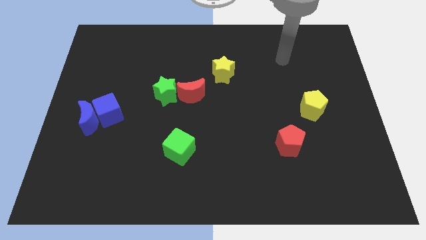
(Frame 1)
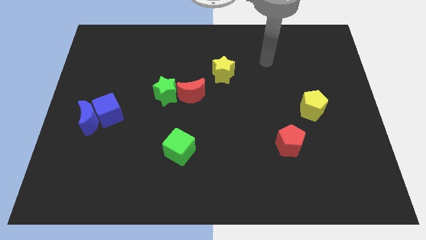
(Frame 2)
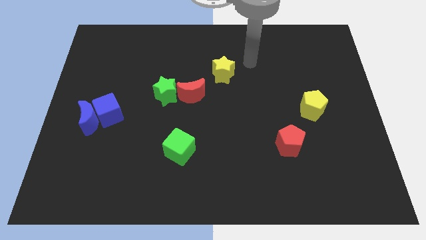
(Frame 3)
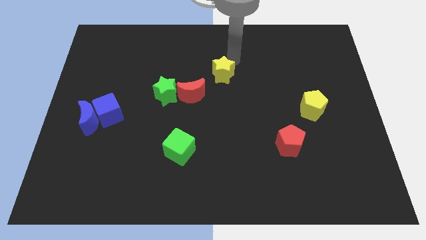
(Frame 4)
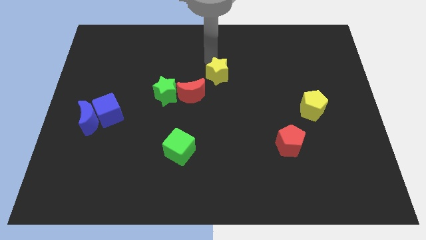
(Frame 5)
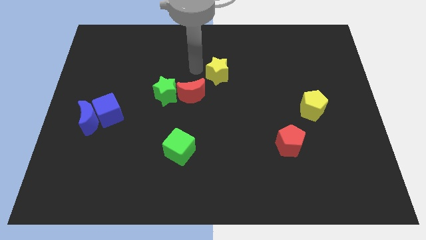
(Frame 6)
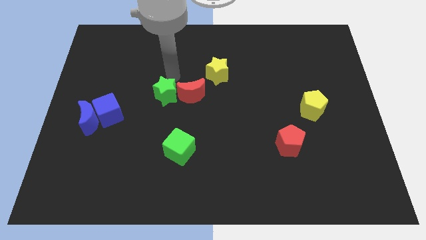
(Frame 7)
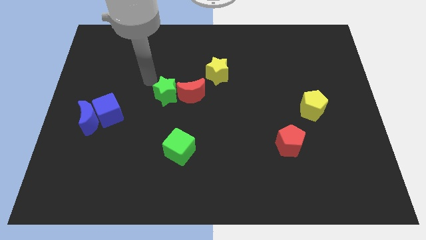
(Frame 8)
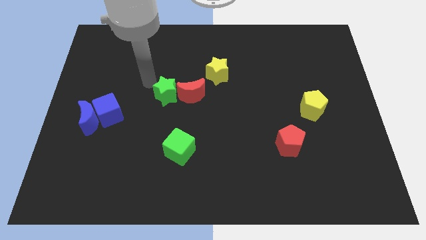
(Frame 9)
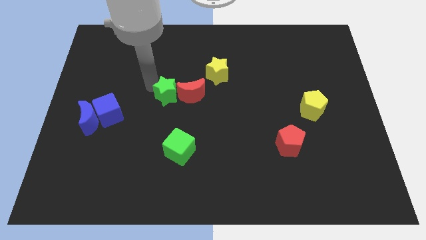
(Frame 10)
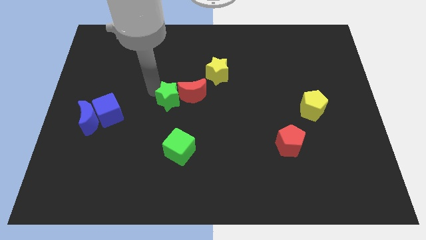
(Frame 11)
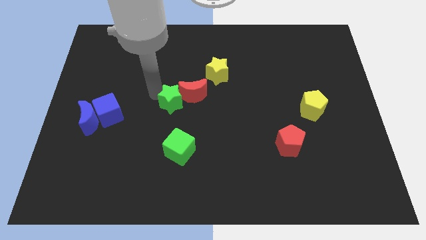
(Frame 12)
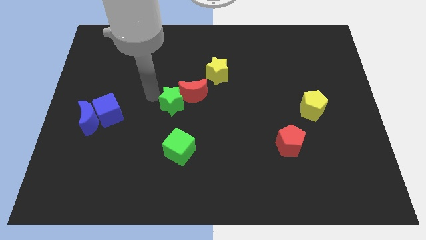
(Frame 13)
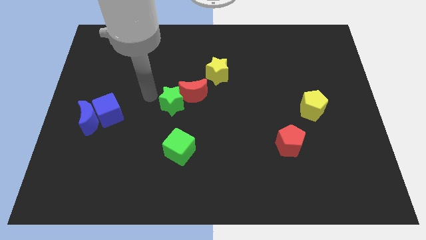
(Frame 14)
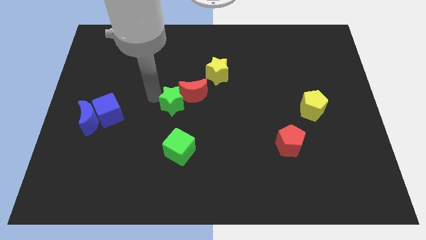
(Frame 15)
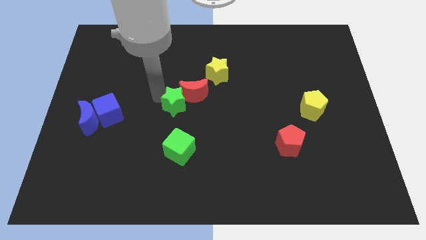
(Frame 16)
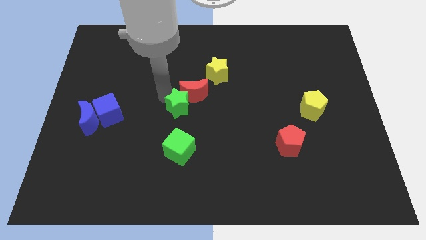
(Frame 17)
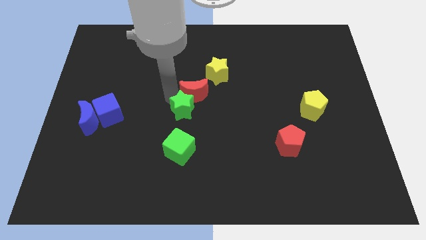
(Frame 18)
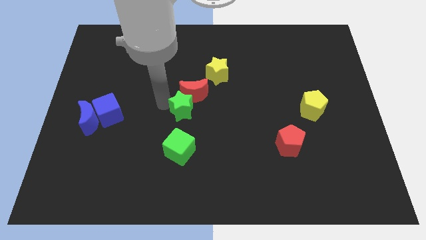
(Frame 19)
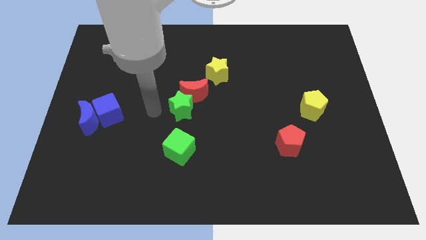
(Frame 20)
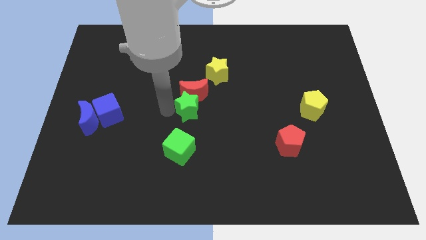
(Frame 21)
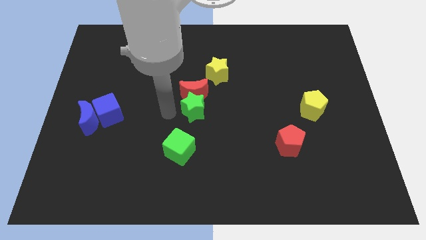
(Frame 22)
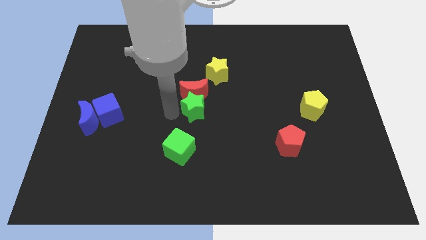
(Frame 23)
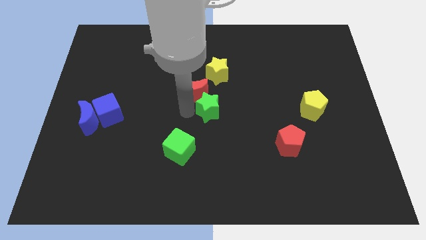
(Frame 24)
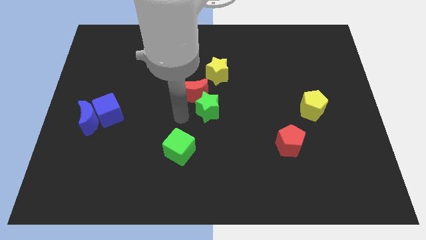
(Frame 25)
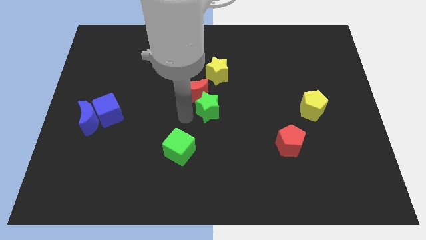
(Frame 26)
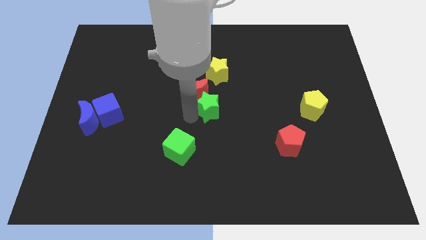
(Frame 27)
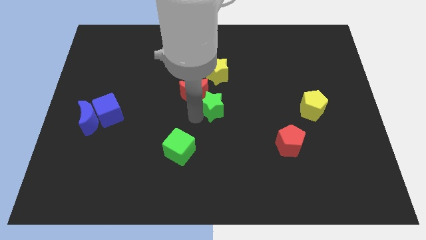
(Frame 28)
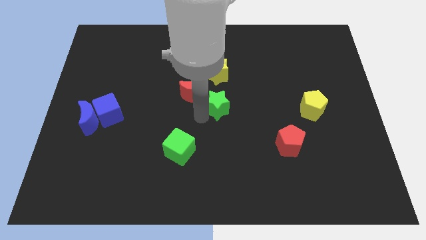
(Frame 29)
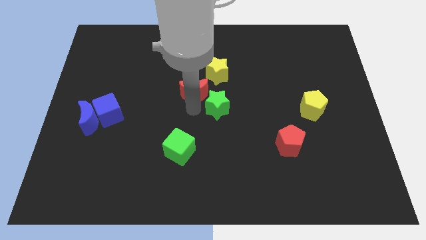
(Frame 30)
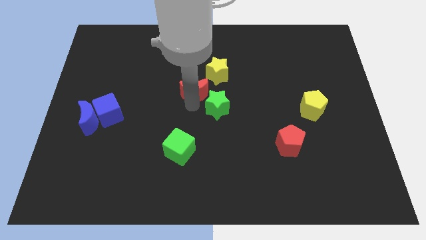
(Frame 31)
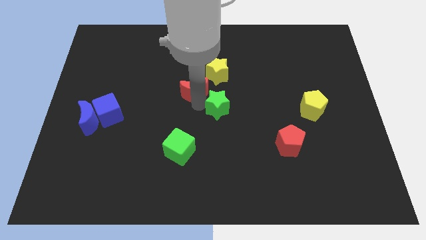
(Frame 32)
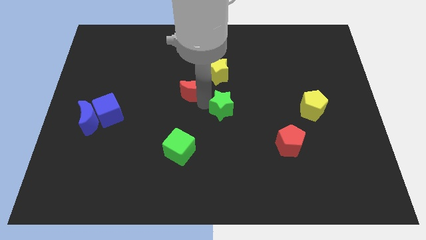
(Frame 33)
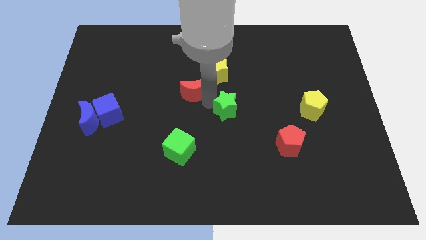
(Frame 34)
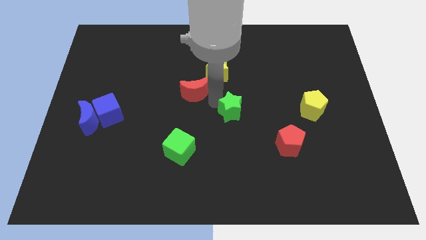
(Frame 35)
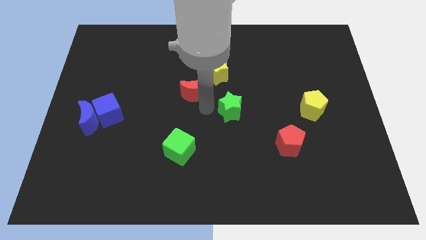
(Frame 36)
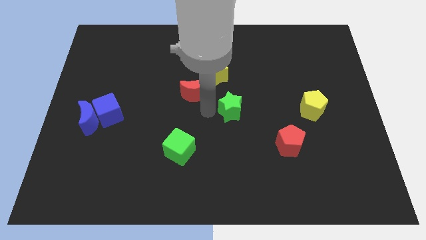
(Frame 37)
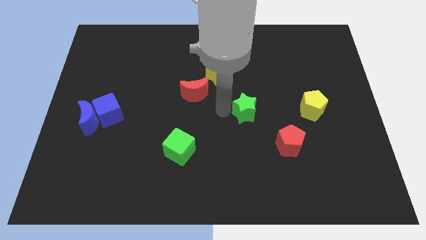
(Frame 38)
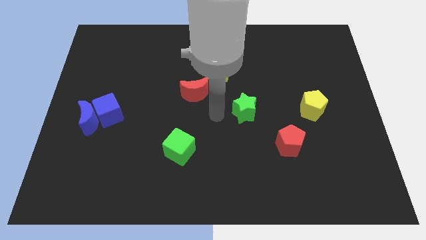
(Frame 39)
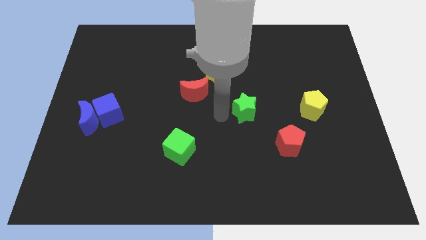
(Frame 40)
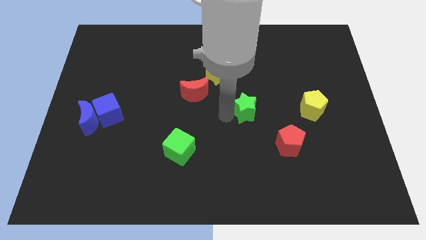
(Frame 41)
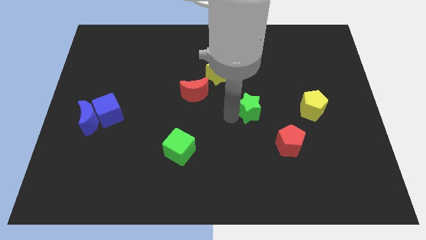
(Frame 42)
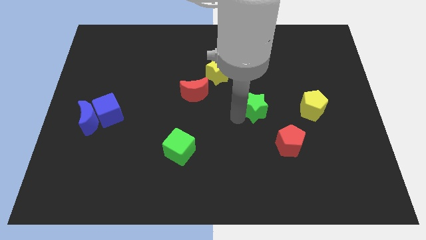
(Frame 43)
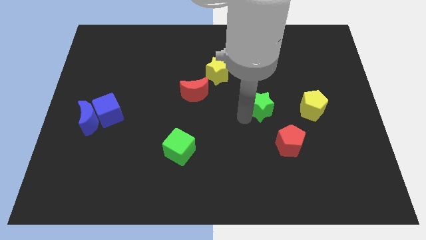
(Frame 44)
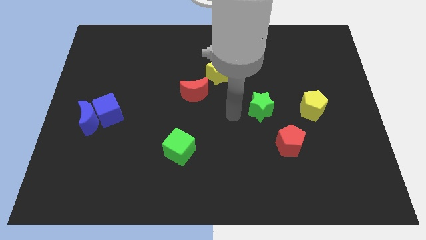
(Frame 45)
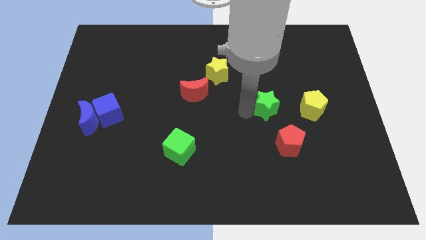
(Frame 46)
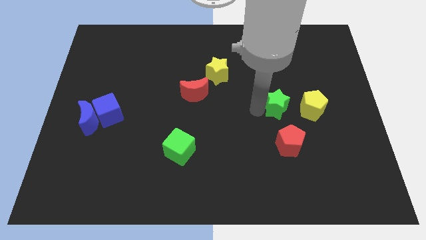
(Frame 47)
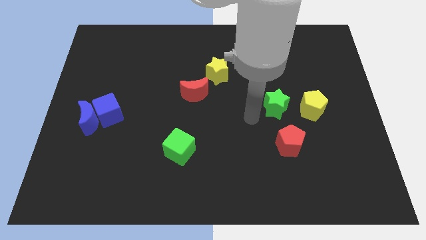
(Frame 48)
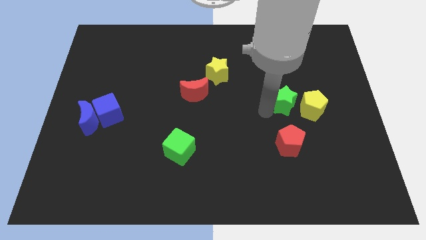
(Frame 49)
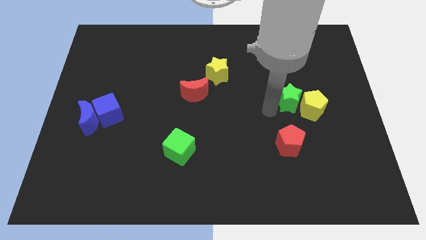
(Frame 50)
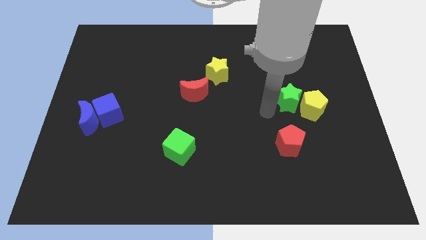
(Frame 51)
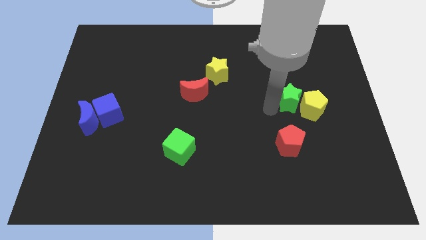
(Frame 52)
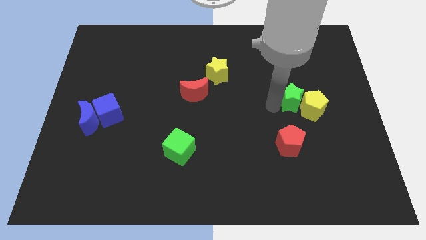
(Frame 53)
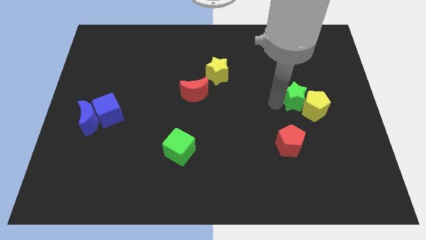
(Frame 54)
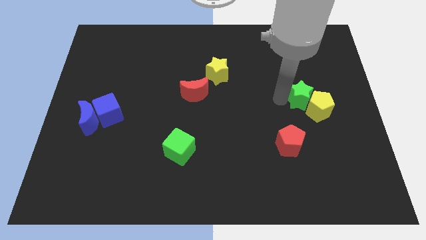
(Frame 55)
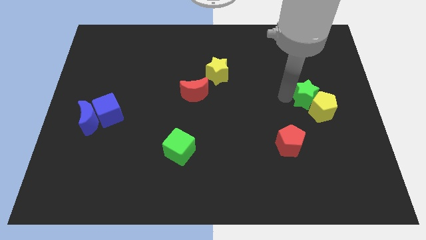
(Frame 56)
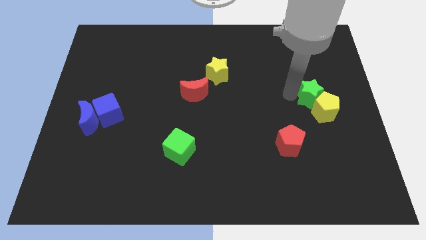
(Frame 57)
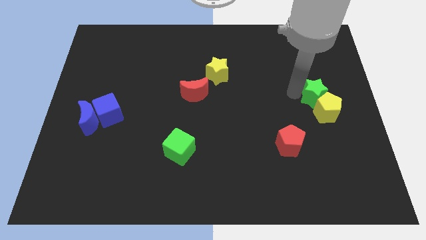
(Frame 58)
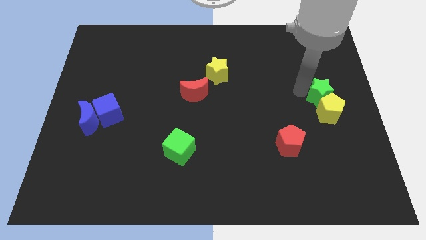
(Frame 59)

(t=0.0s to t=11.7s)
move the green star to the right side
